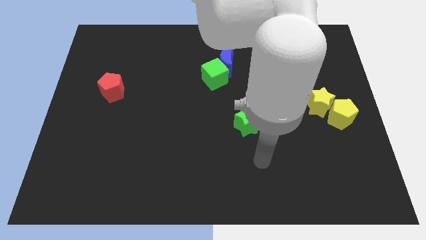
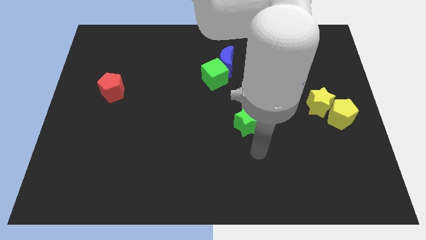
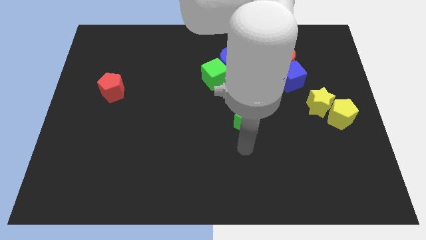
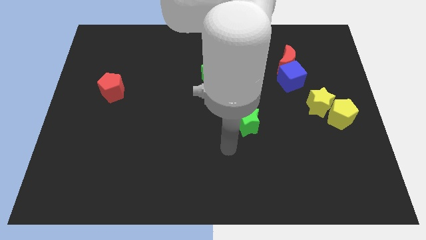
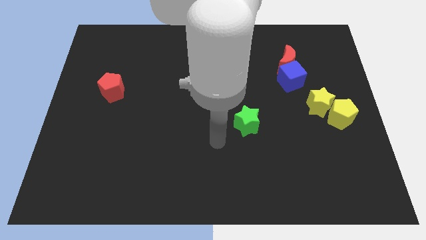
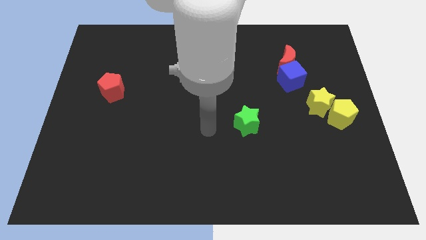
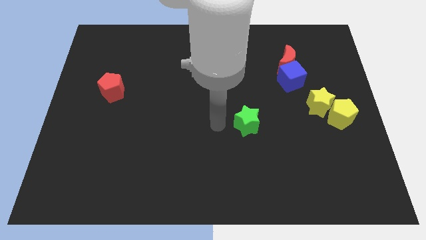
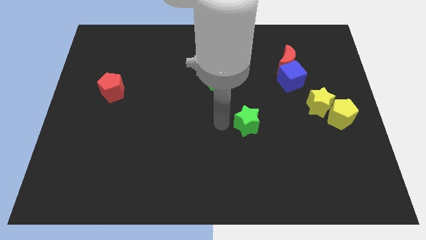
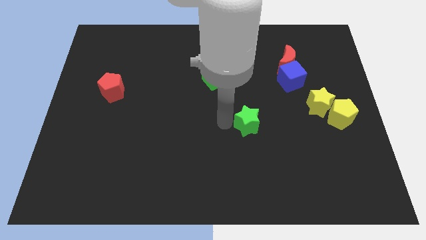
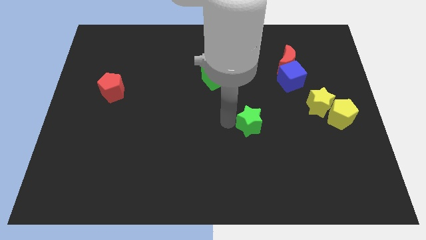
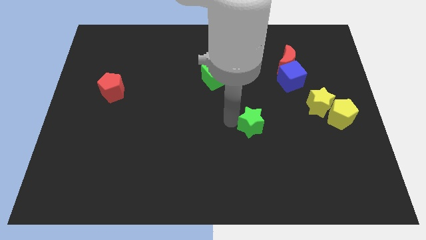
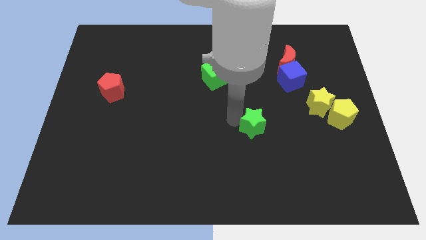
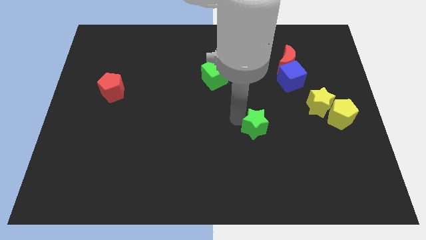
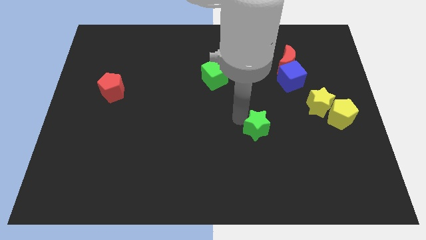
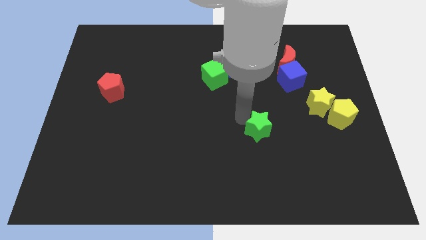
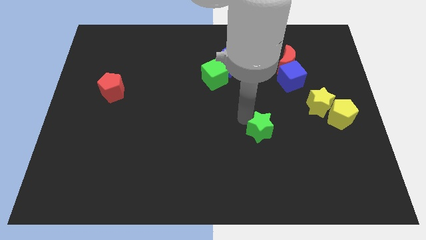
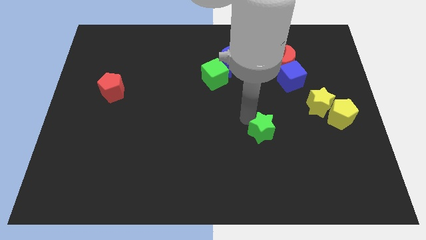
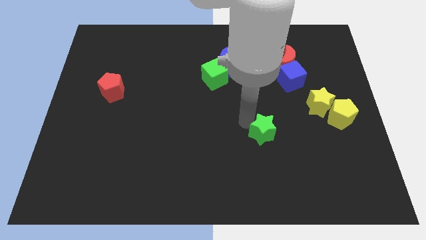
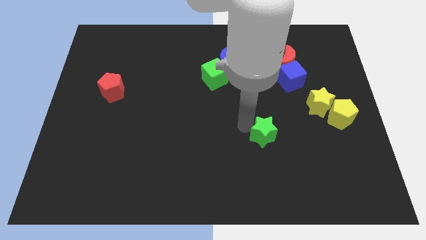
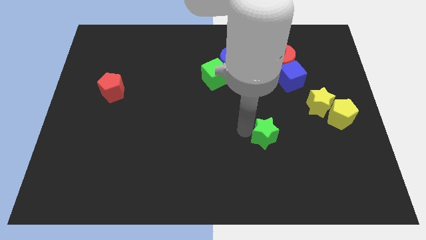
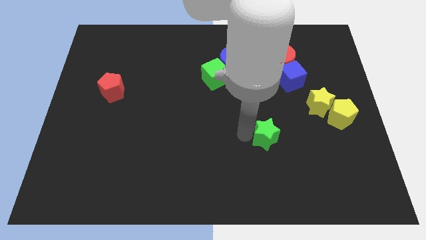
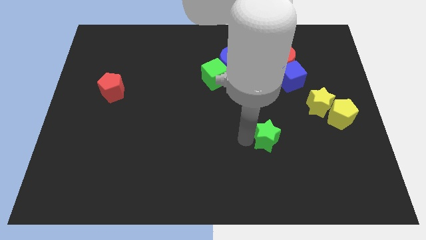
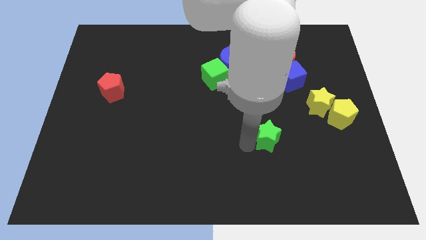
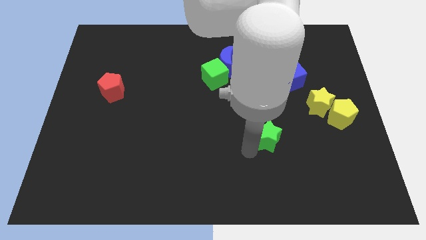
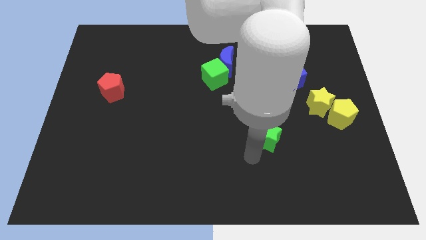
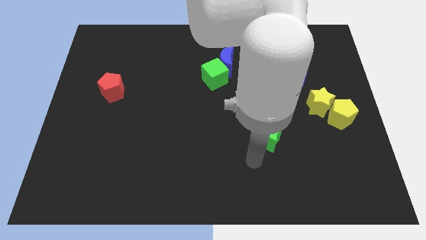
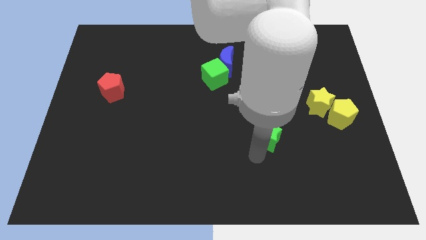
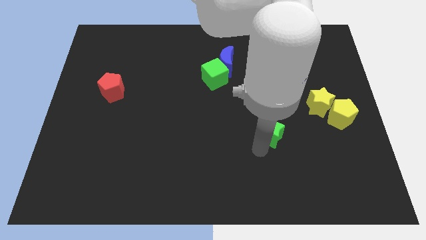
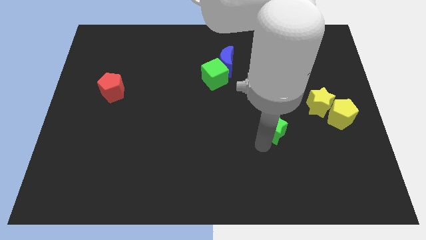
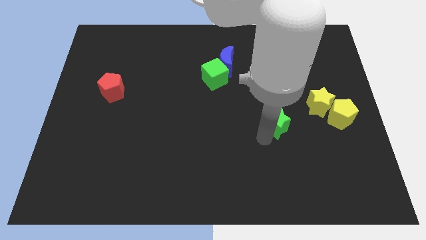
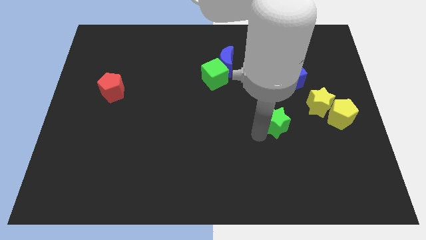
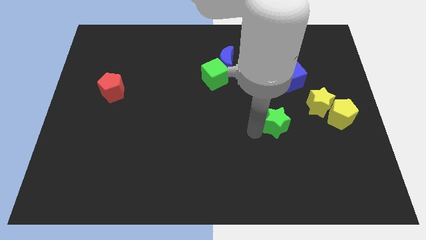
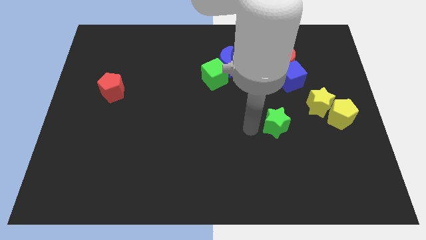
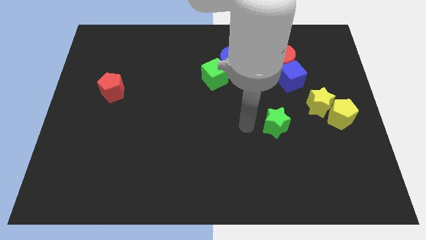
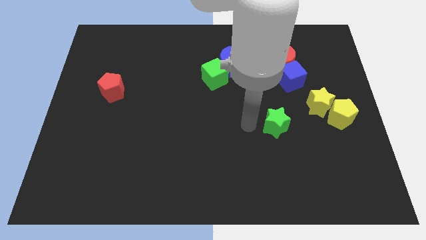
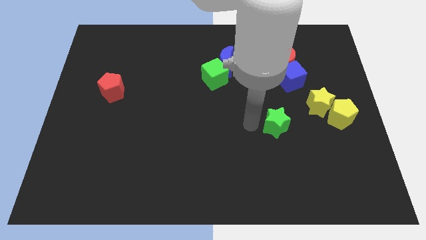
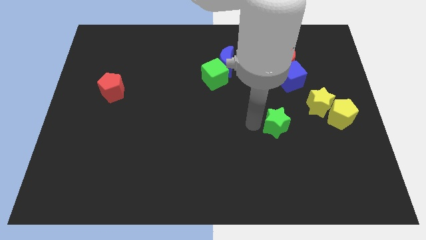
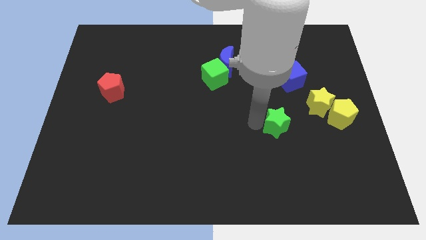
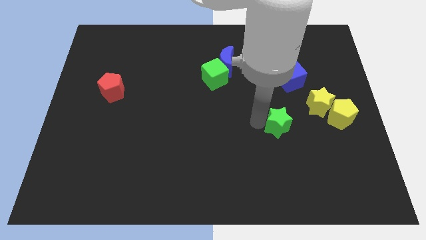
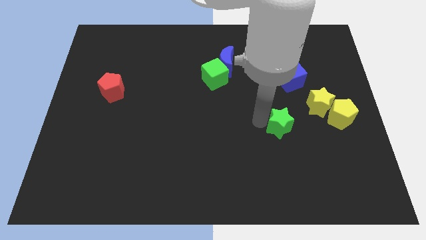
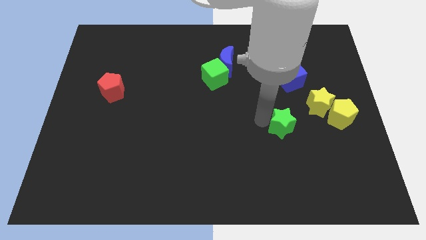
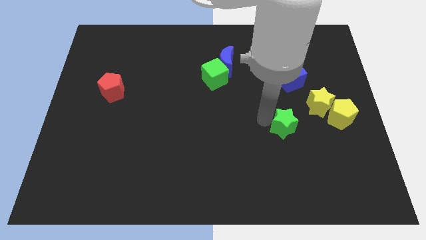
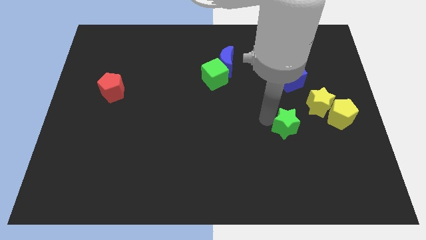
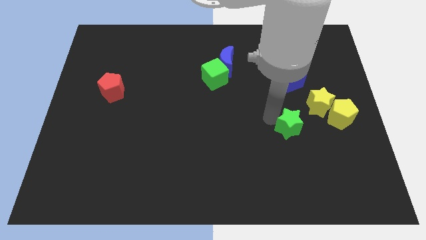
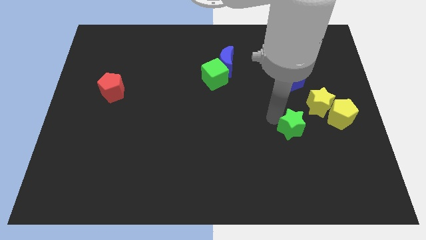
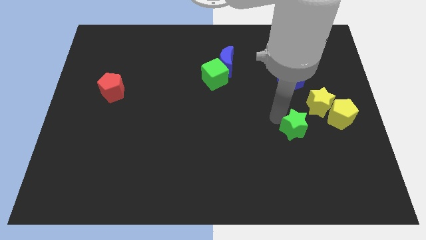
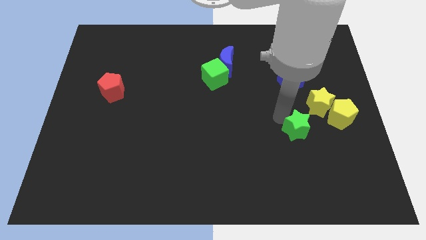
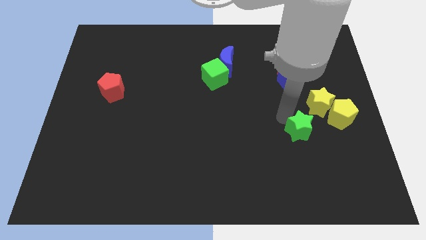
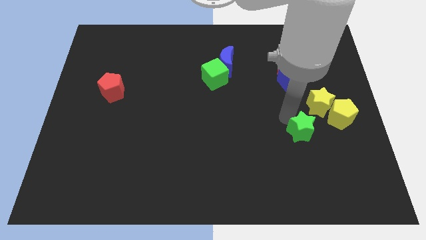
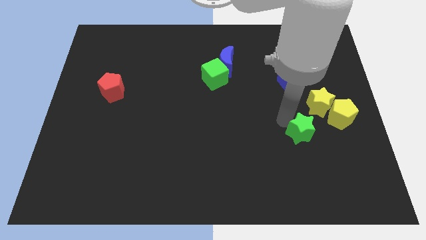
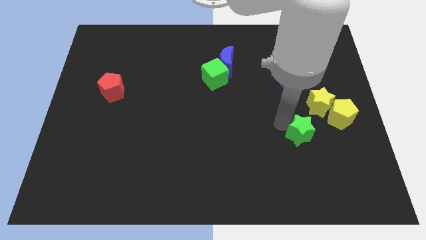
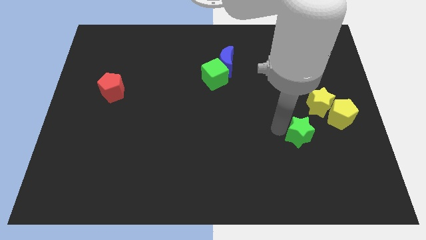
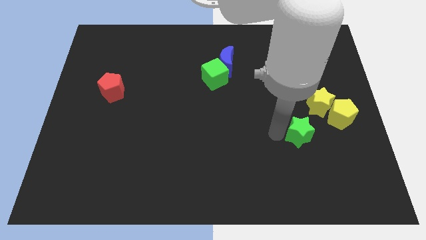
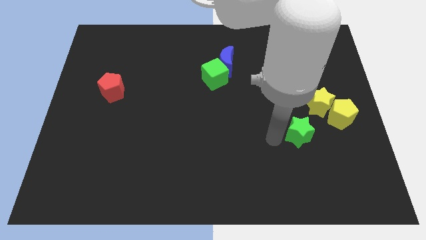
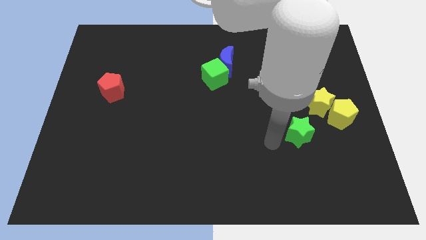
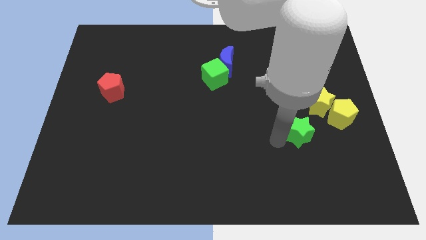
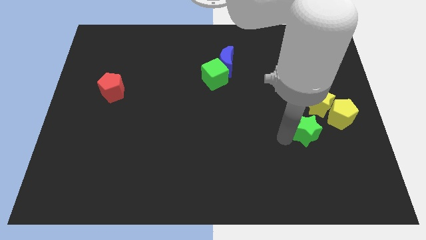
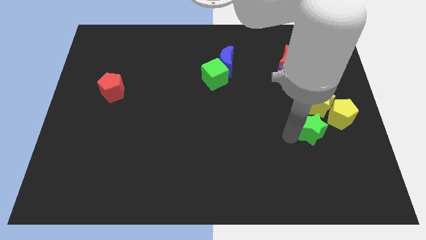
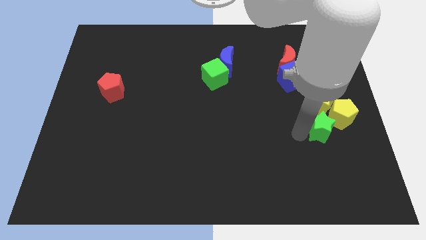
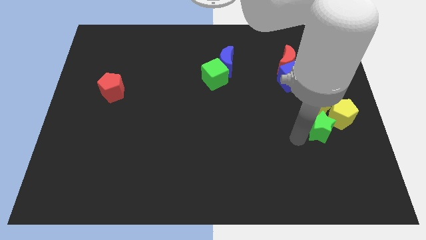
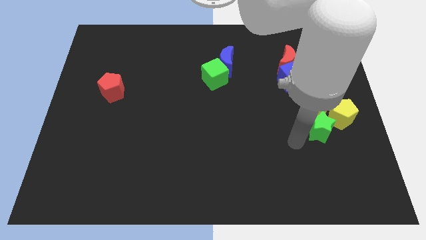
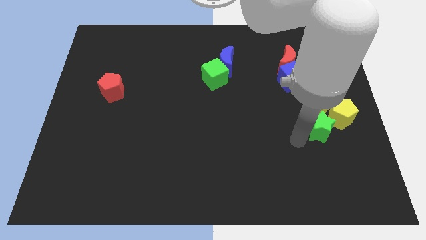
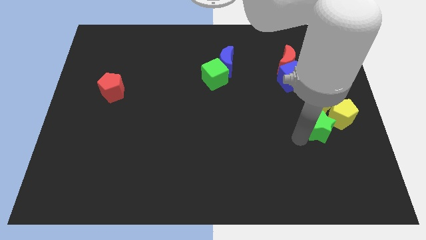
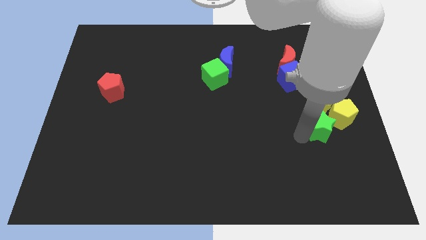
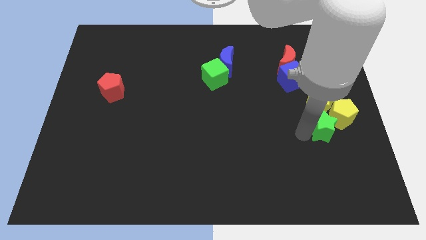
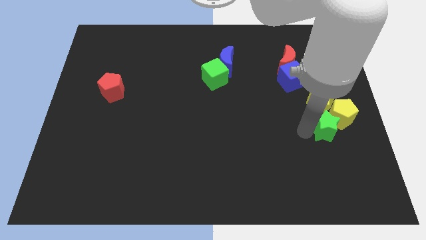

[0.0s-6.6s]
put the green star close to the yellow pentagon
